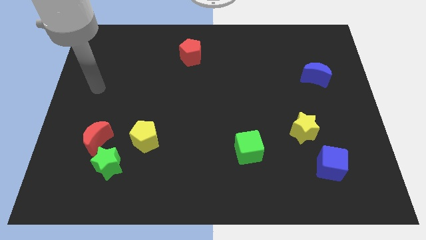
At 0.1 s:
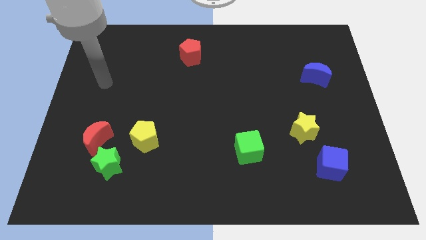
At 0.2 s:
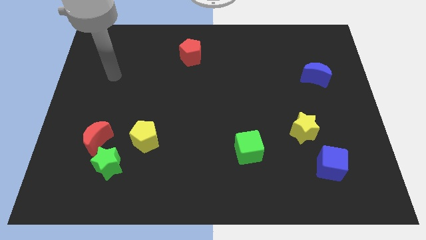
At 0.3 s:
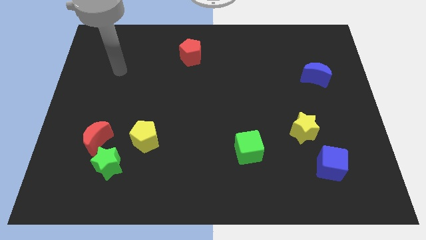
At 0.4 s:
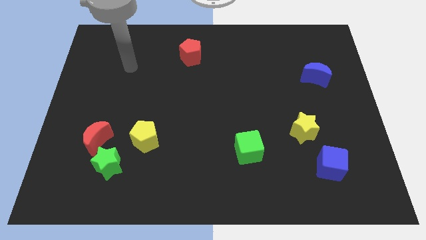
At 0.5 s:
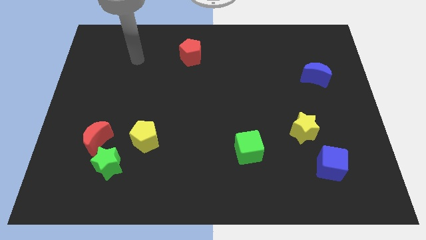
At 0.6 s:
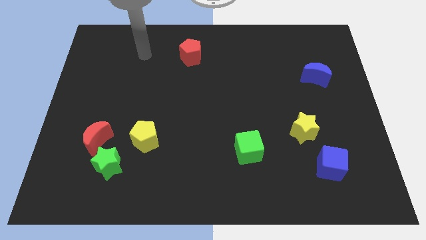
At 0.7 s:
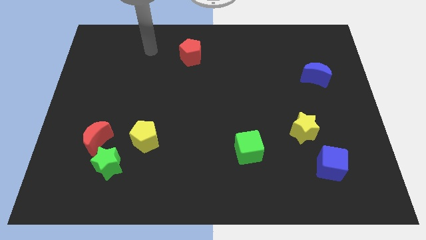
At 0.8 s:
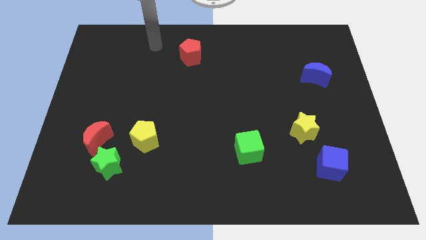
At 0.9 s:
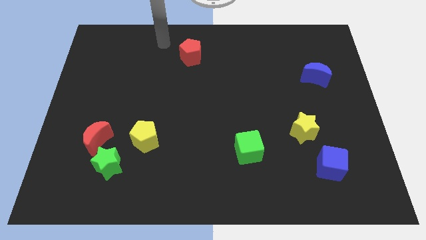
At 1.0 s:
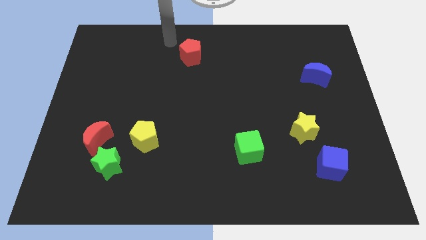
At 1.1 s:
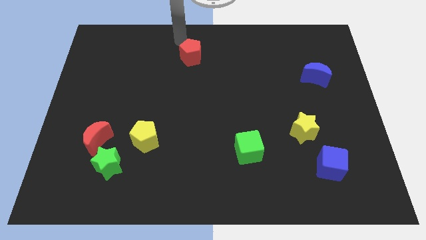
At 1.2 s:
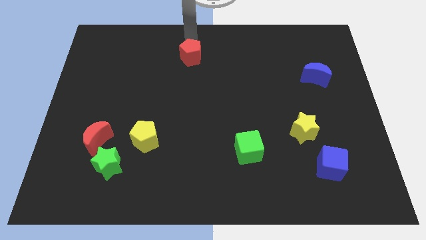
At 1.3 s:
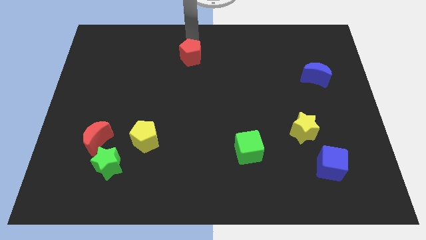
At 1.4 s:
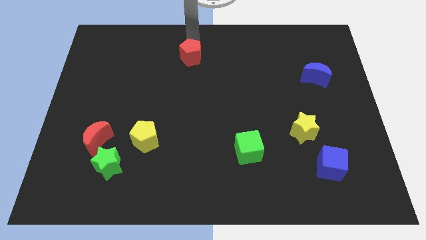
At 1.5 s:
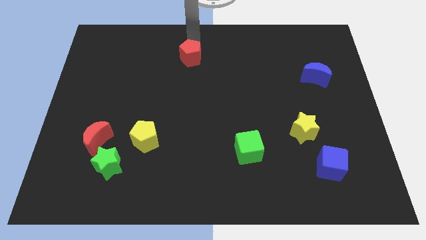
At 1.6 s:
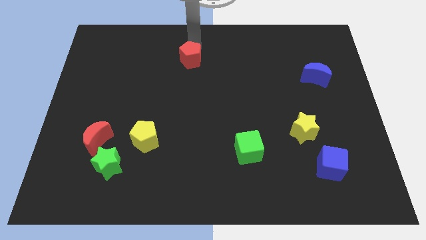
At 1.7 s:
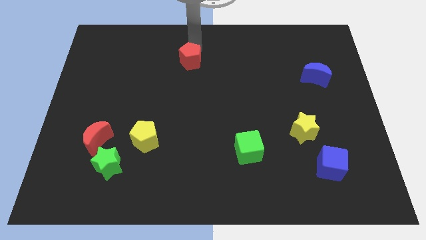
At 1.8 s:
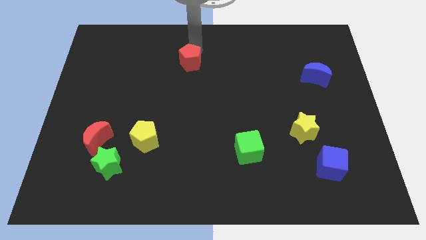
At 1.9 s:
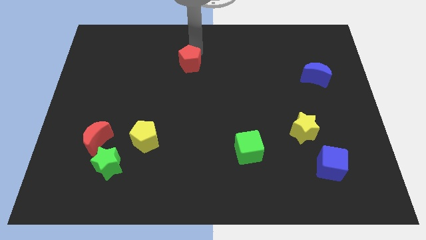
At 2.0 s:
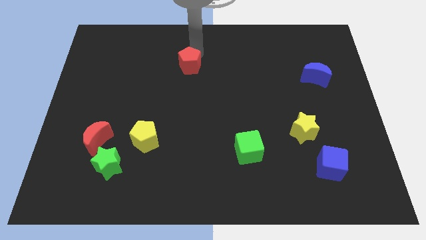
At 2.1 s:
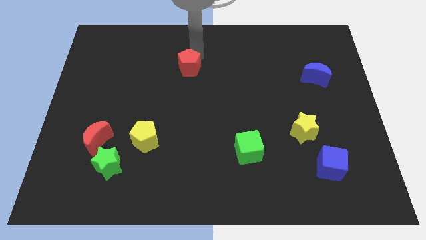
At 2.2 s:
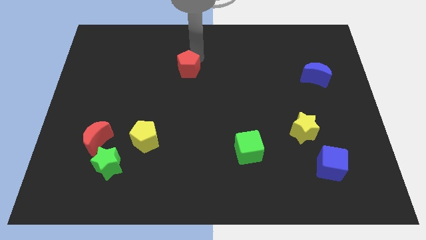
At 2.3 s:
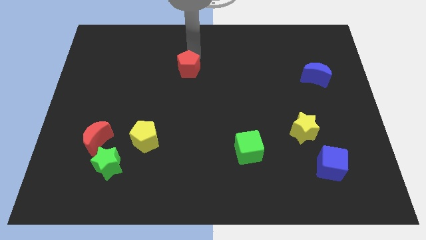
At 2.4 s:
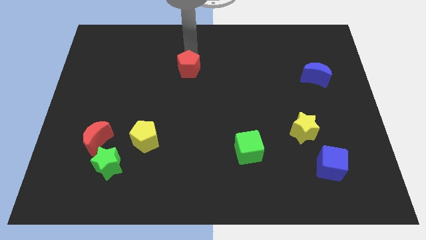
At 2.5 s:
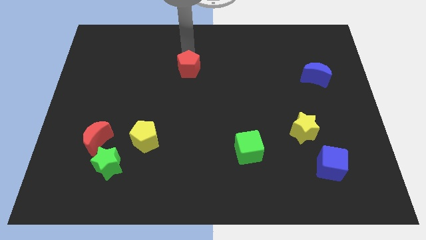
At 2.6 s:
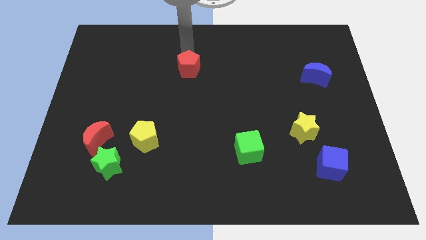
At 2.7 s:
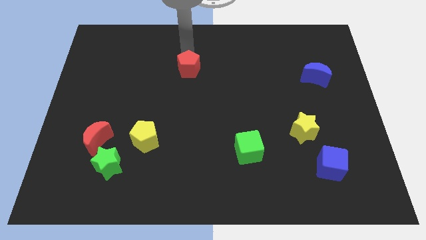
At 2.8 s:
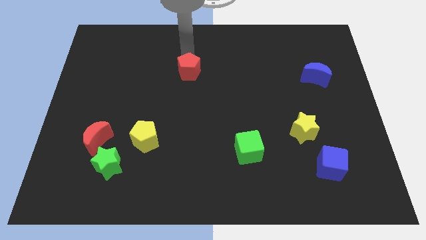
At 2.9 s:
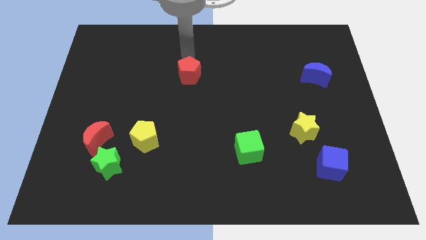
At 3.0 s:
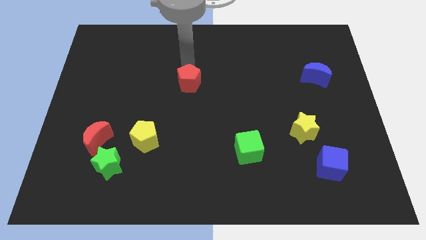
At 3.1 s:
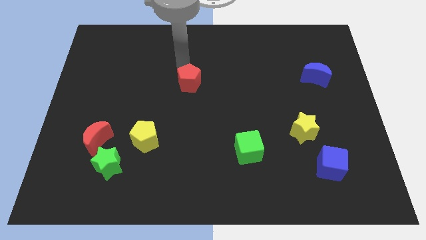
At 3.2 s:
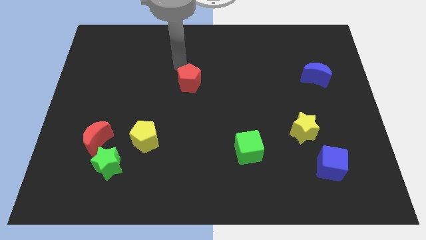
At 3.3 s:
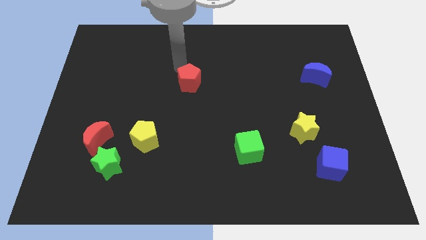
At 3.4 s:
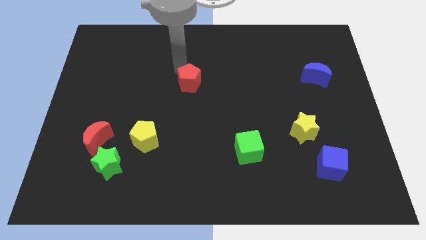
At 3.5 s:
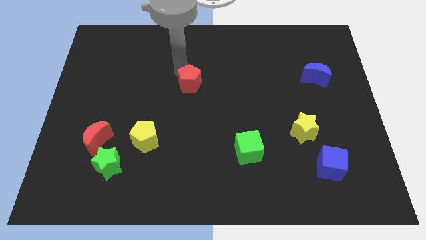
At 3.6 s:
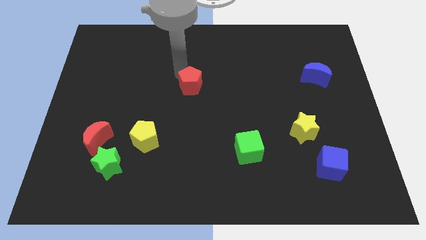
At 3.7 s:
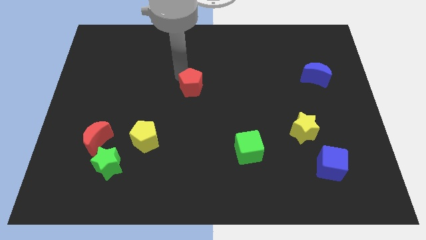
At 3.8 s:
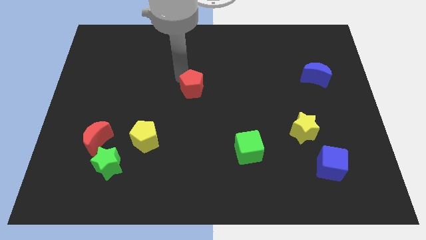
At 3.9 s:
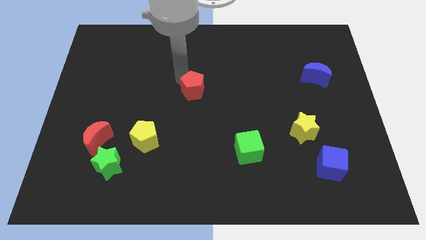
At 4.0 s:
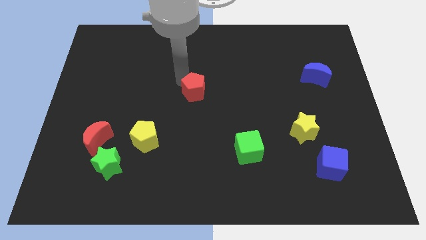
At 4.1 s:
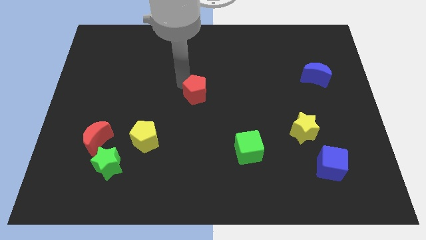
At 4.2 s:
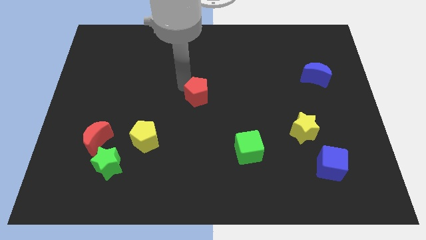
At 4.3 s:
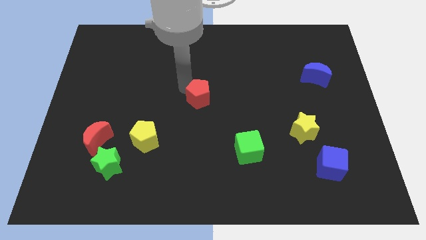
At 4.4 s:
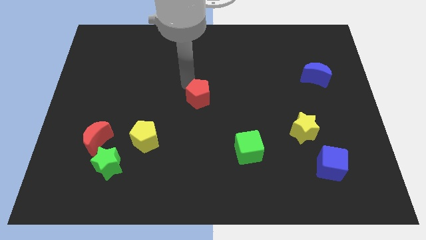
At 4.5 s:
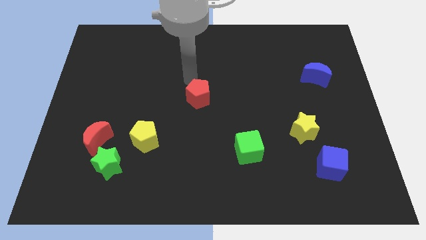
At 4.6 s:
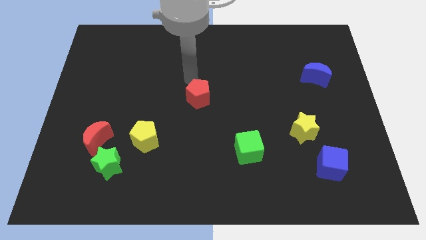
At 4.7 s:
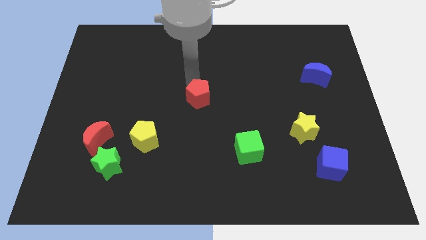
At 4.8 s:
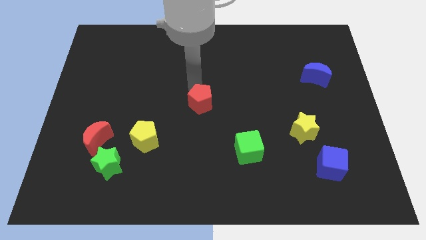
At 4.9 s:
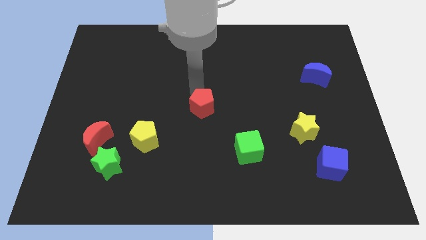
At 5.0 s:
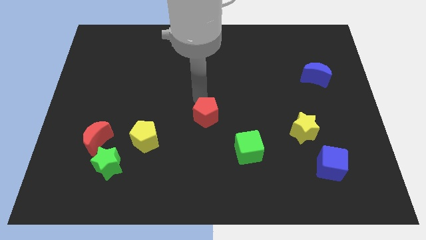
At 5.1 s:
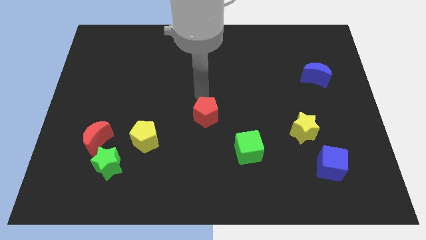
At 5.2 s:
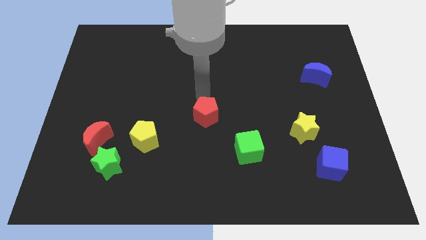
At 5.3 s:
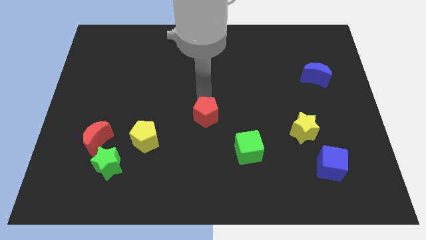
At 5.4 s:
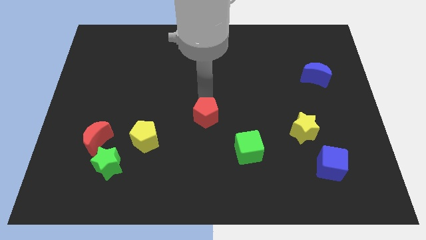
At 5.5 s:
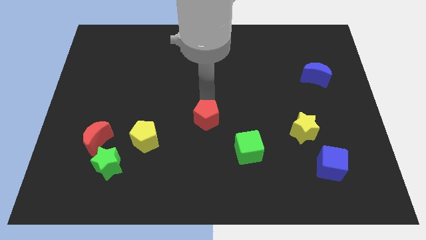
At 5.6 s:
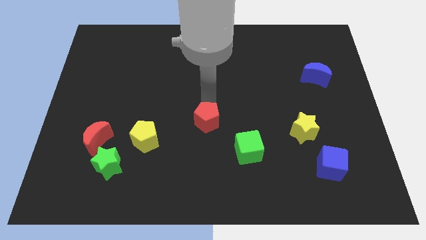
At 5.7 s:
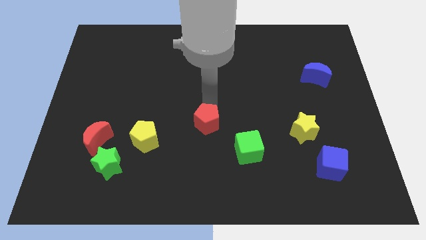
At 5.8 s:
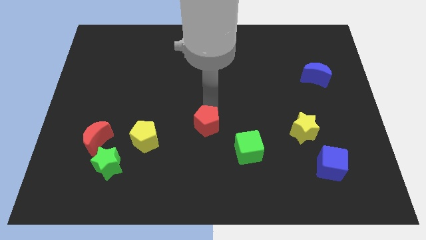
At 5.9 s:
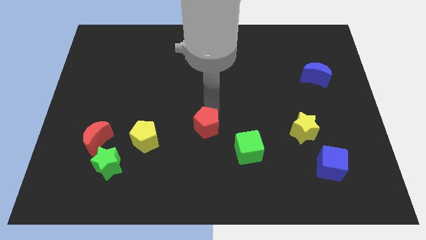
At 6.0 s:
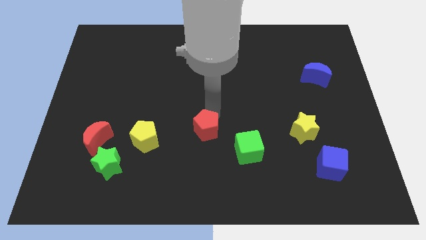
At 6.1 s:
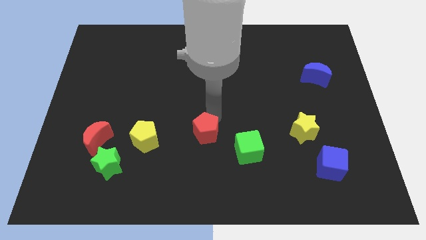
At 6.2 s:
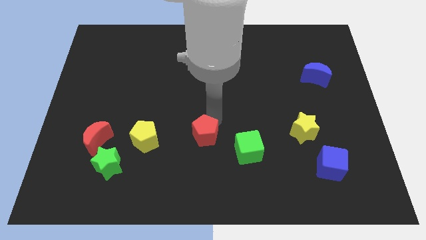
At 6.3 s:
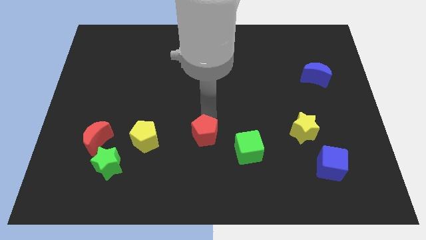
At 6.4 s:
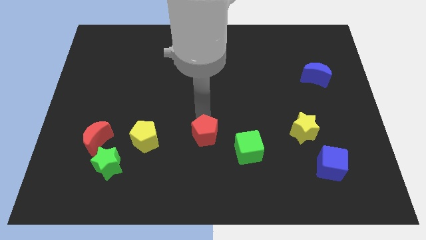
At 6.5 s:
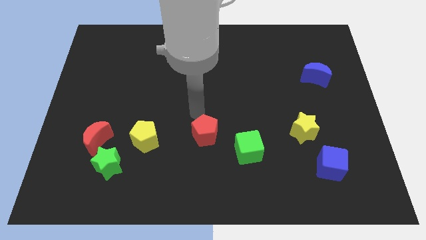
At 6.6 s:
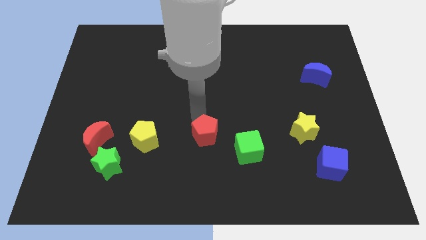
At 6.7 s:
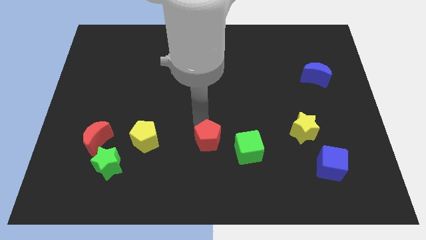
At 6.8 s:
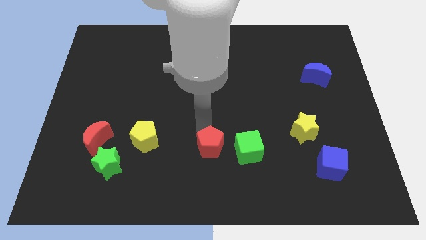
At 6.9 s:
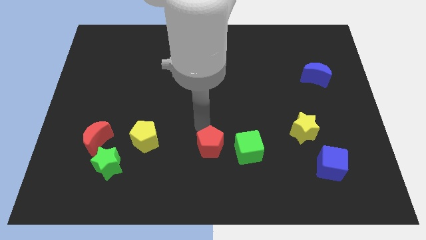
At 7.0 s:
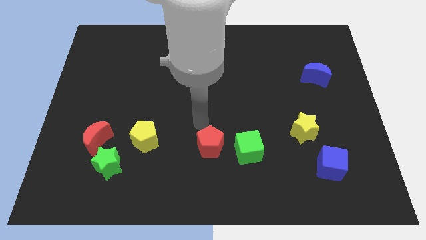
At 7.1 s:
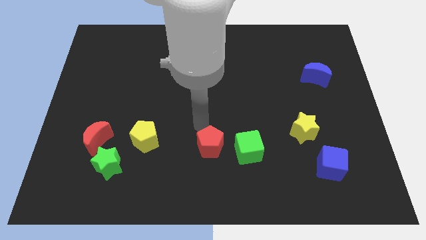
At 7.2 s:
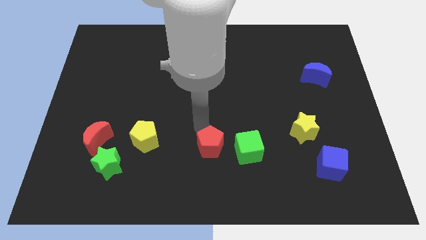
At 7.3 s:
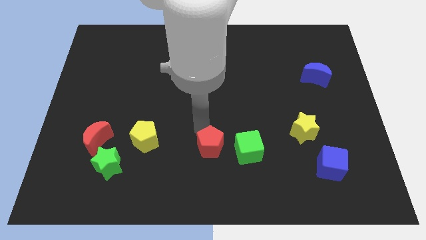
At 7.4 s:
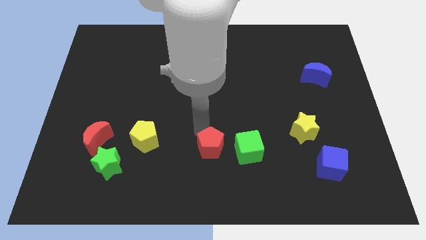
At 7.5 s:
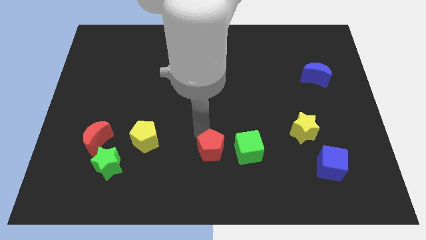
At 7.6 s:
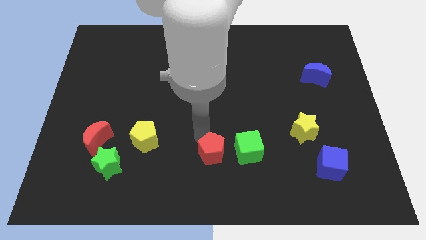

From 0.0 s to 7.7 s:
slide the red pentagon to the bottom
